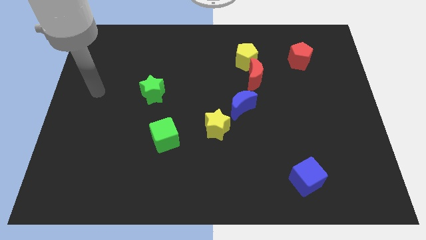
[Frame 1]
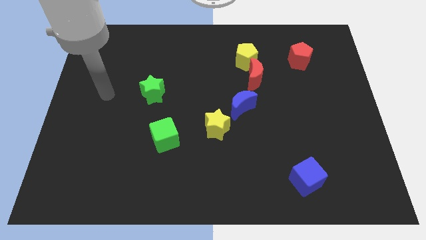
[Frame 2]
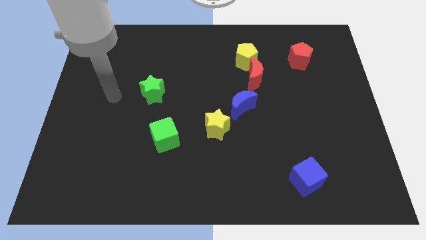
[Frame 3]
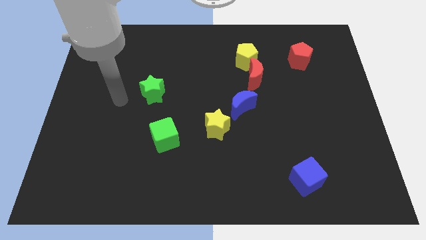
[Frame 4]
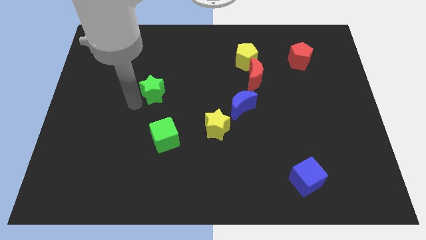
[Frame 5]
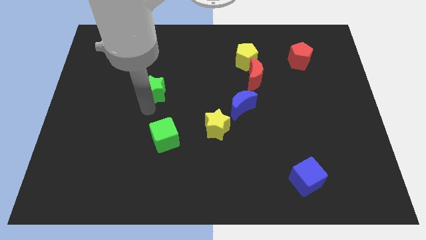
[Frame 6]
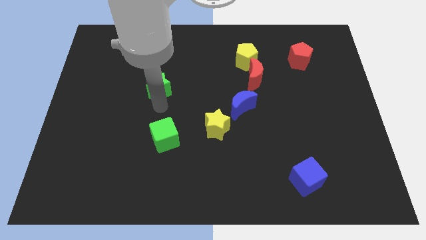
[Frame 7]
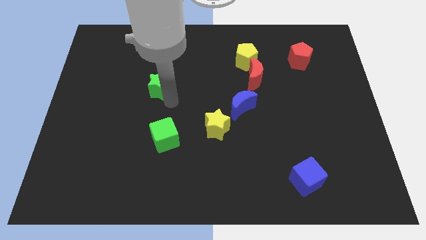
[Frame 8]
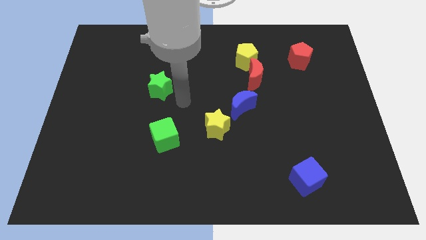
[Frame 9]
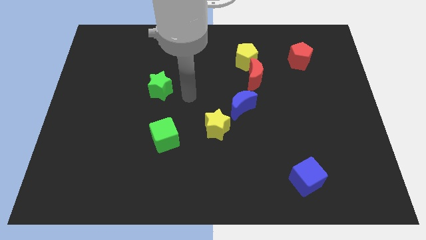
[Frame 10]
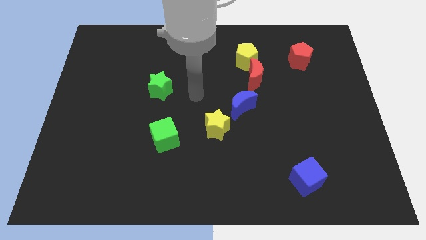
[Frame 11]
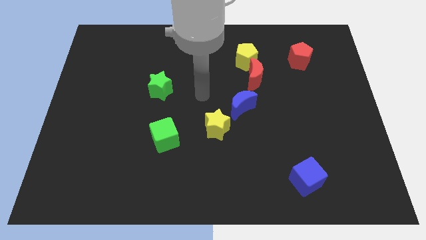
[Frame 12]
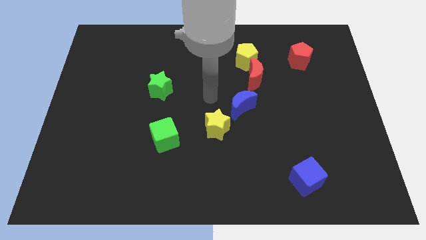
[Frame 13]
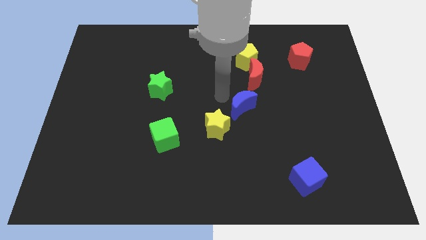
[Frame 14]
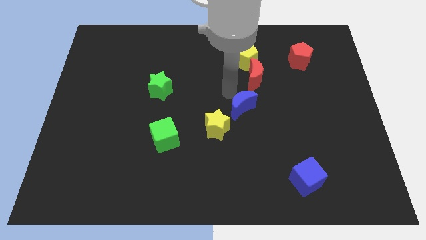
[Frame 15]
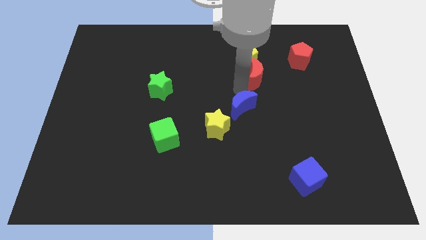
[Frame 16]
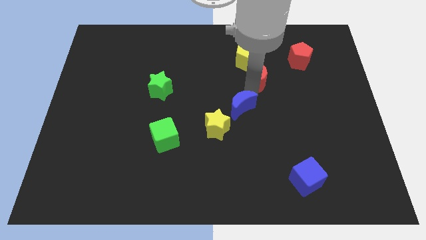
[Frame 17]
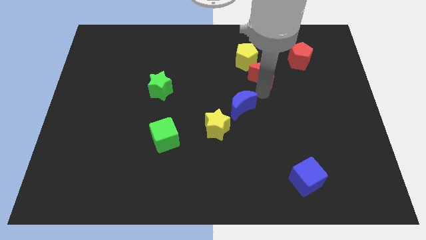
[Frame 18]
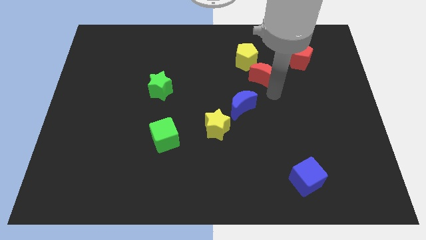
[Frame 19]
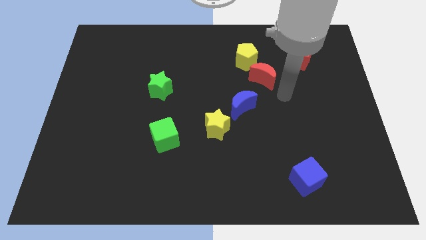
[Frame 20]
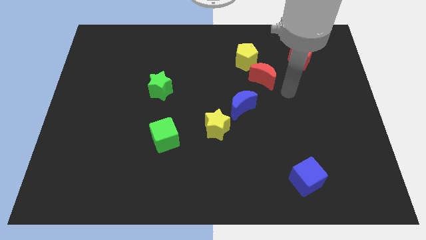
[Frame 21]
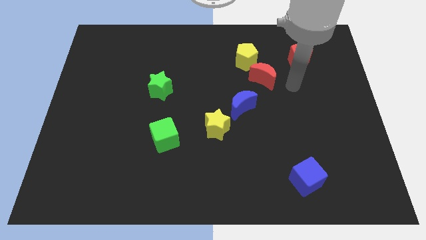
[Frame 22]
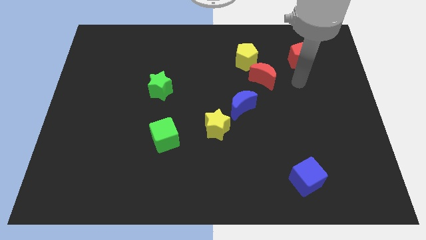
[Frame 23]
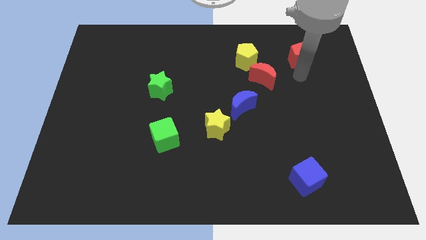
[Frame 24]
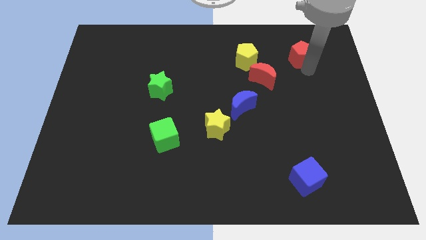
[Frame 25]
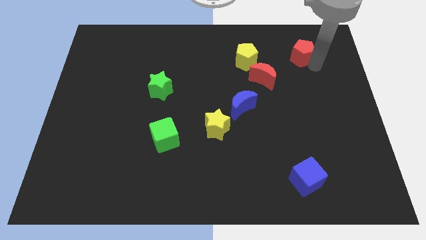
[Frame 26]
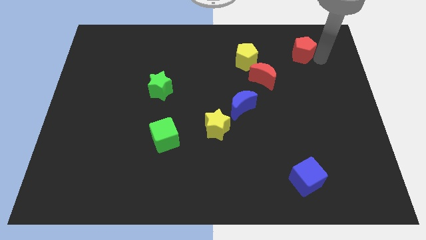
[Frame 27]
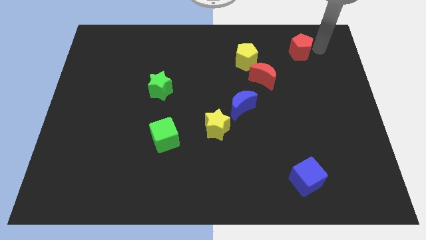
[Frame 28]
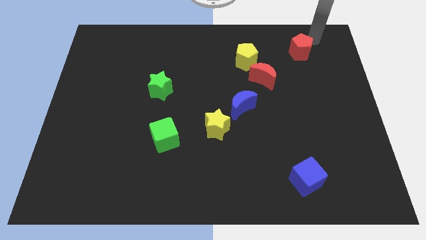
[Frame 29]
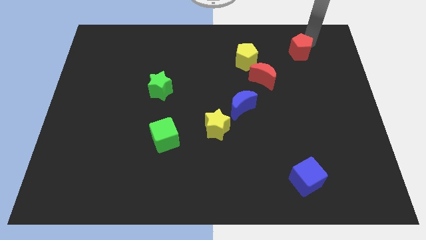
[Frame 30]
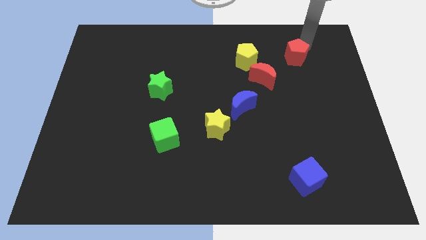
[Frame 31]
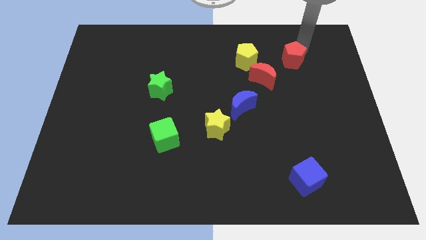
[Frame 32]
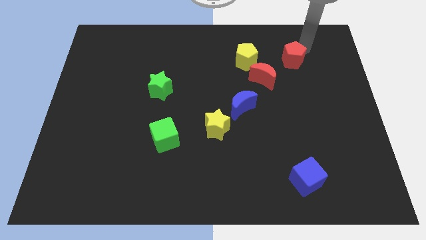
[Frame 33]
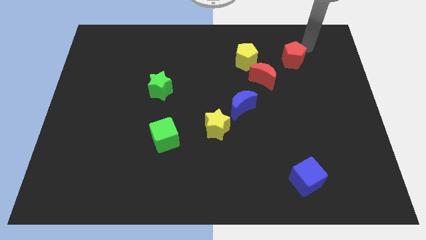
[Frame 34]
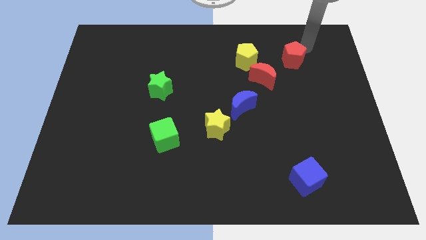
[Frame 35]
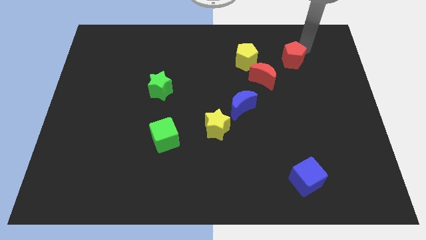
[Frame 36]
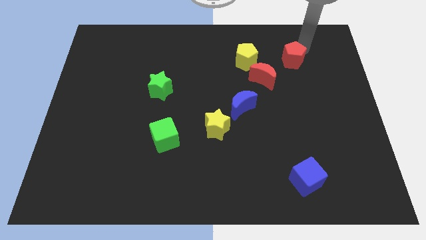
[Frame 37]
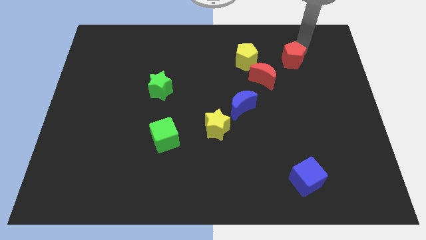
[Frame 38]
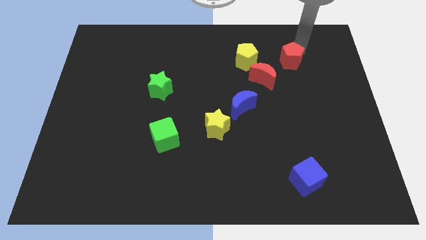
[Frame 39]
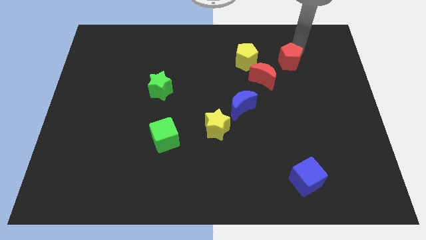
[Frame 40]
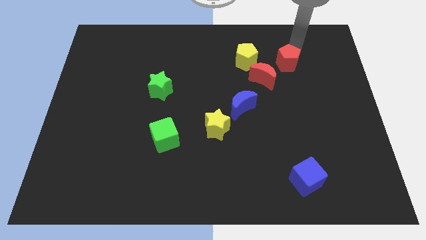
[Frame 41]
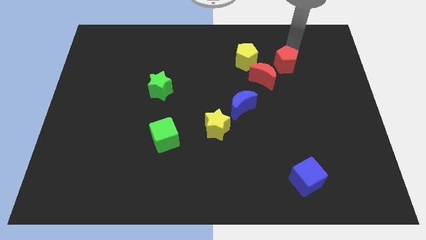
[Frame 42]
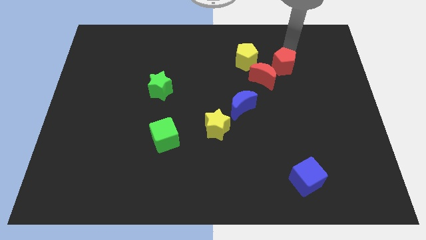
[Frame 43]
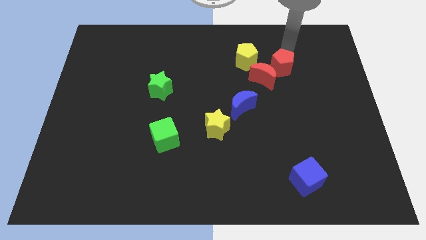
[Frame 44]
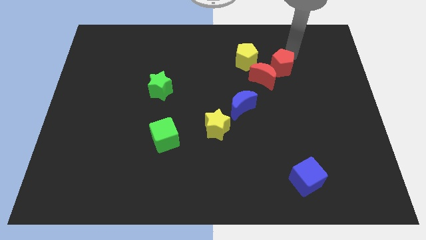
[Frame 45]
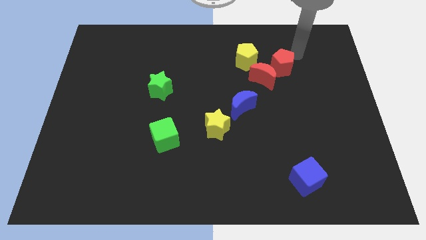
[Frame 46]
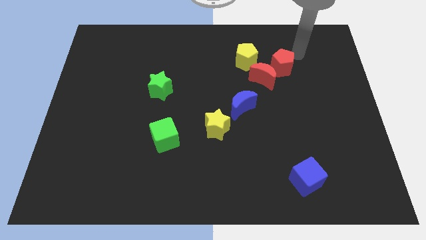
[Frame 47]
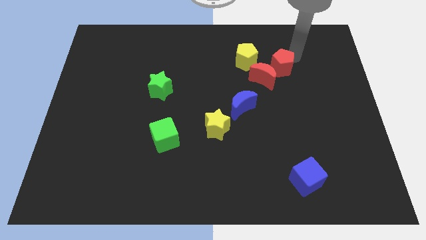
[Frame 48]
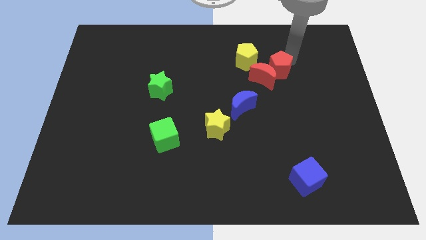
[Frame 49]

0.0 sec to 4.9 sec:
push the red pentagon close to the red moon

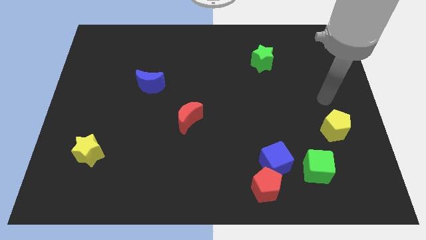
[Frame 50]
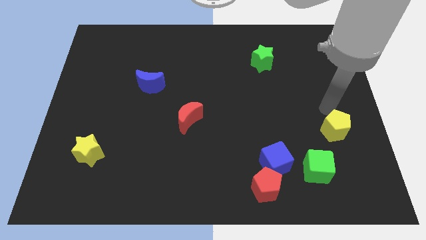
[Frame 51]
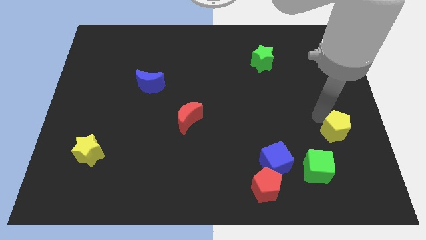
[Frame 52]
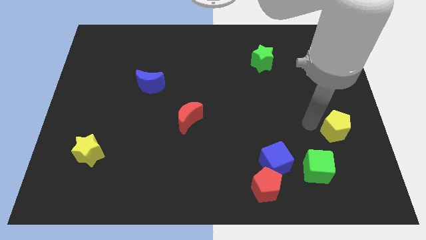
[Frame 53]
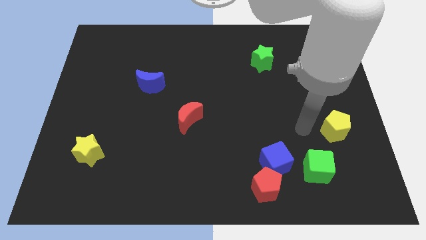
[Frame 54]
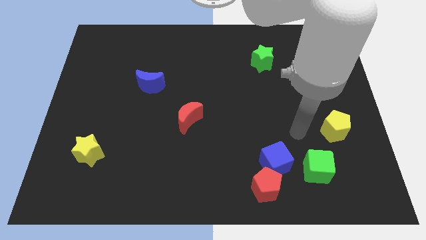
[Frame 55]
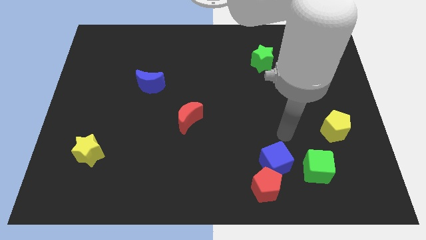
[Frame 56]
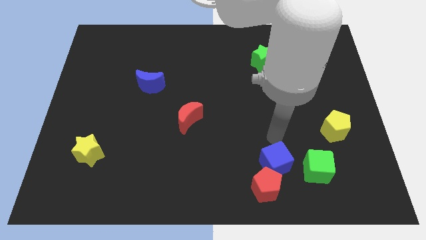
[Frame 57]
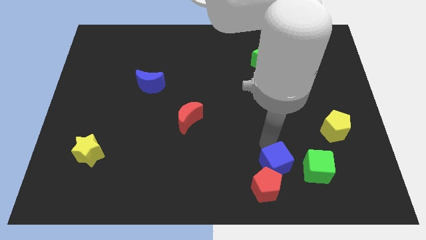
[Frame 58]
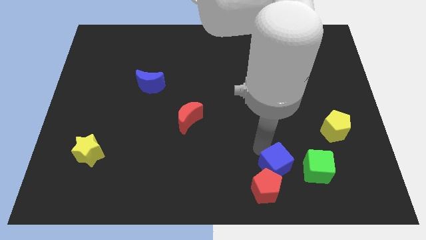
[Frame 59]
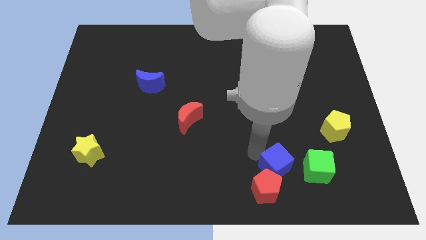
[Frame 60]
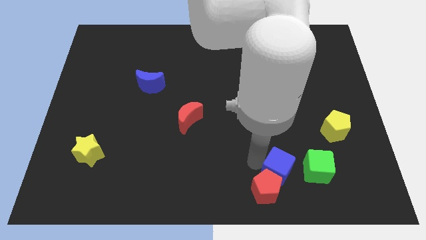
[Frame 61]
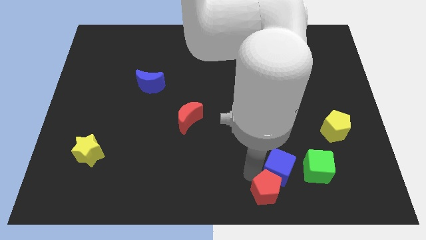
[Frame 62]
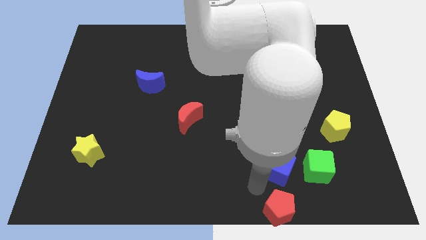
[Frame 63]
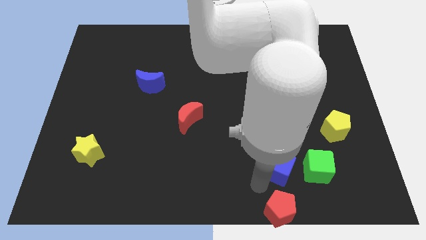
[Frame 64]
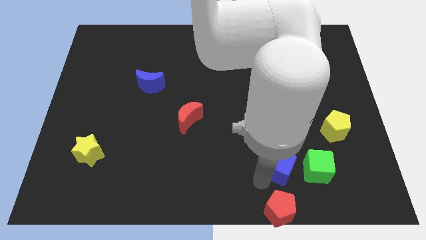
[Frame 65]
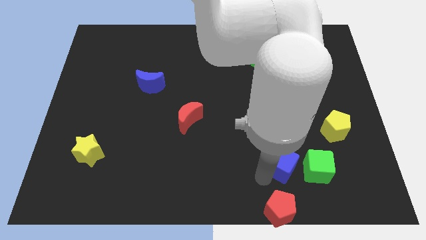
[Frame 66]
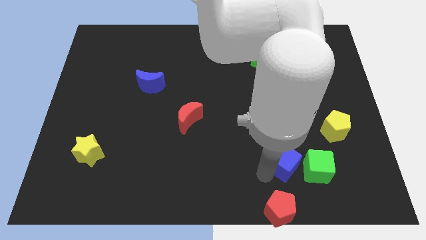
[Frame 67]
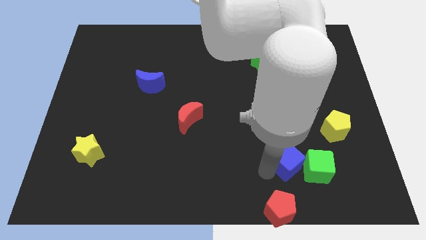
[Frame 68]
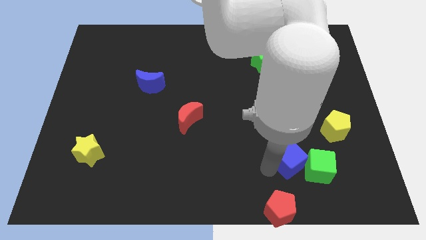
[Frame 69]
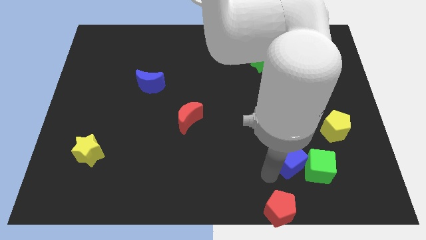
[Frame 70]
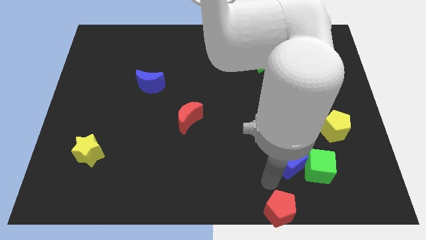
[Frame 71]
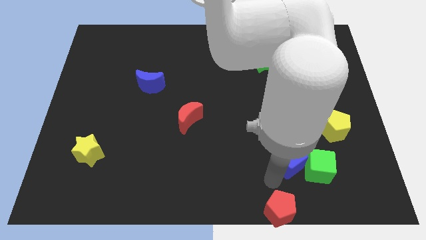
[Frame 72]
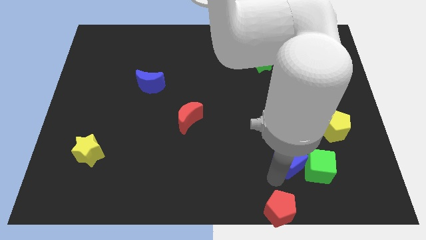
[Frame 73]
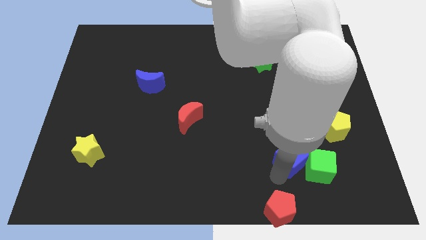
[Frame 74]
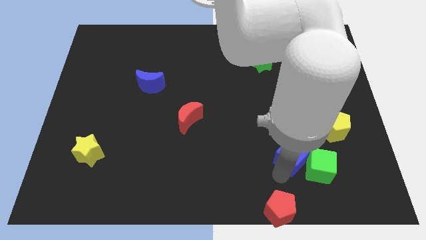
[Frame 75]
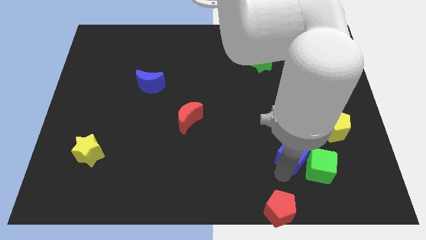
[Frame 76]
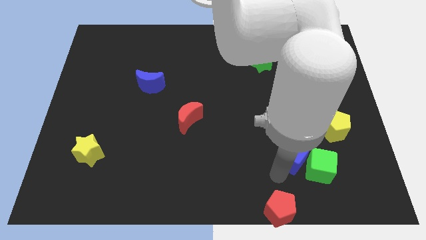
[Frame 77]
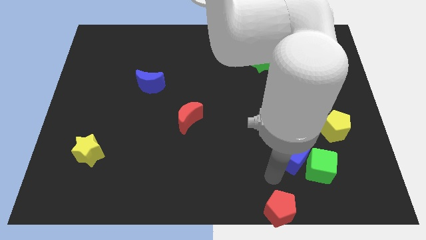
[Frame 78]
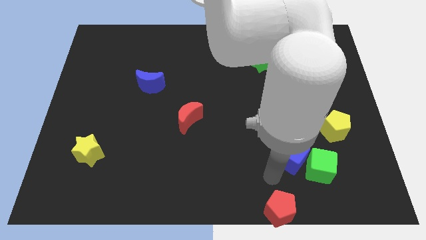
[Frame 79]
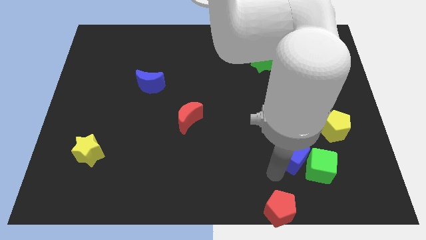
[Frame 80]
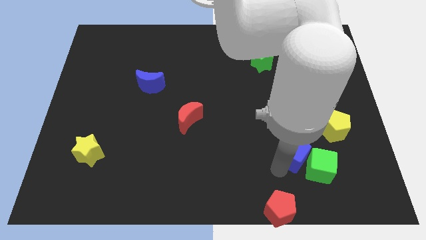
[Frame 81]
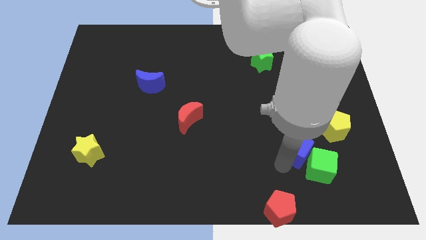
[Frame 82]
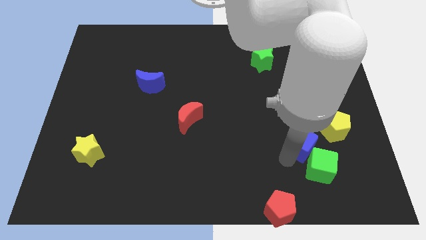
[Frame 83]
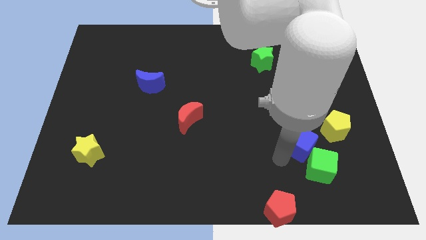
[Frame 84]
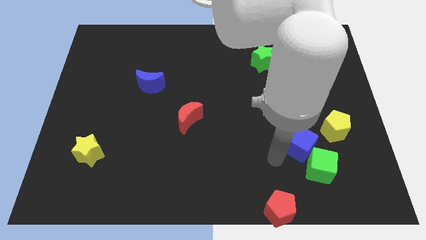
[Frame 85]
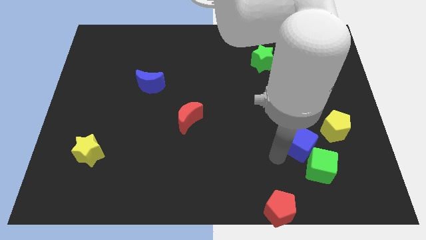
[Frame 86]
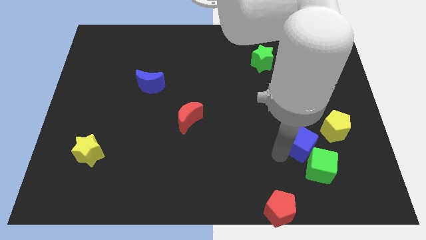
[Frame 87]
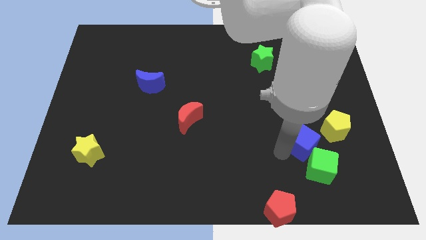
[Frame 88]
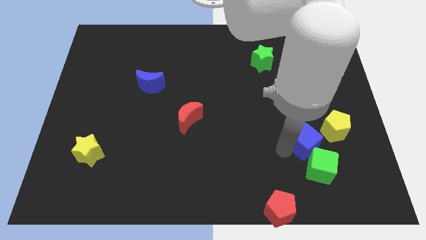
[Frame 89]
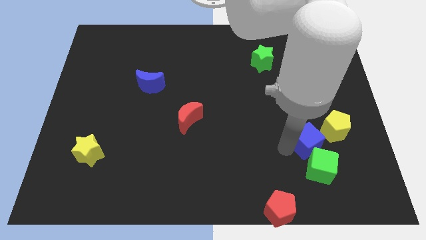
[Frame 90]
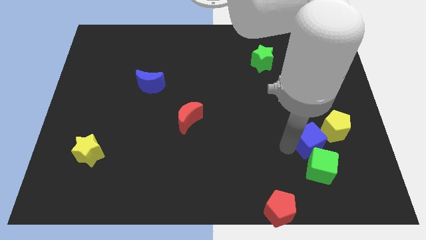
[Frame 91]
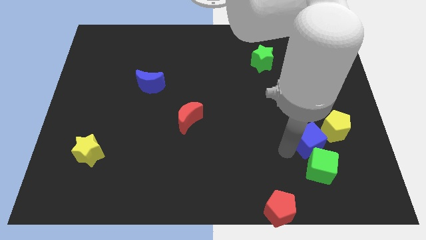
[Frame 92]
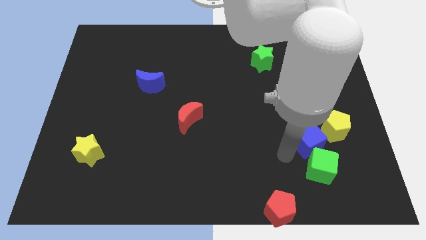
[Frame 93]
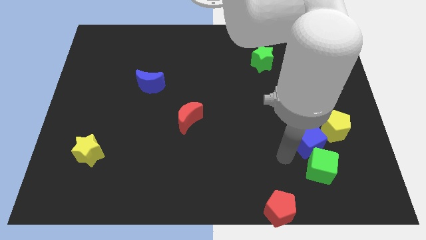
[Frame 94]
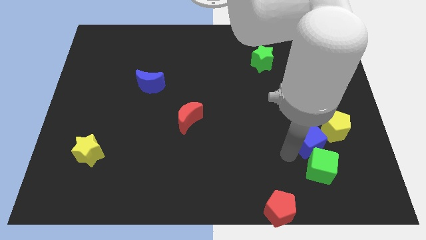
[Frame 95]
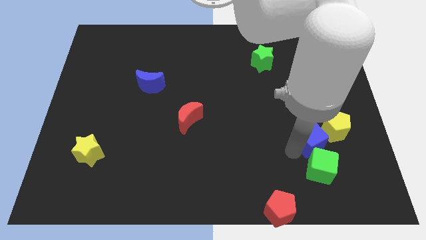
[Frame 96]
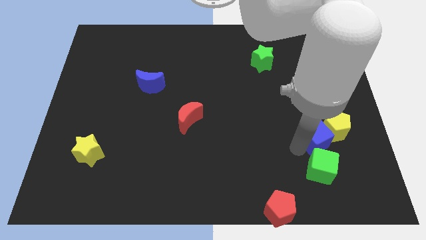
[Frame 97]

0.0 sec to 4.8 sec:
slide the blue cube to the yellow pentagon
